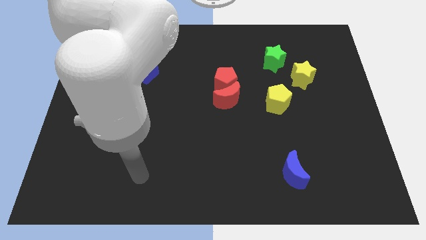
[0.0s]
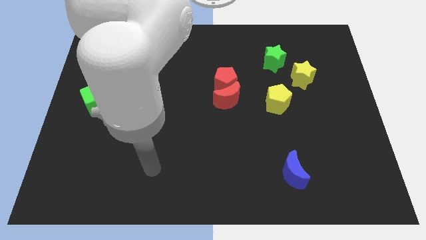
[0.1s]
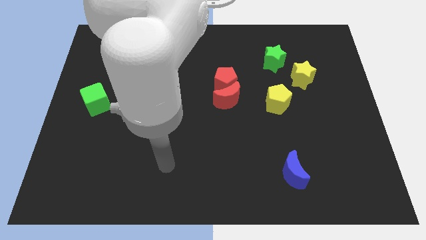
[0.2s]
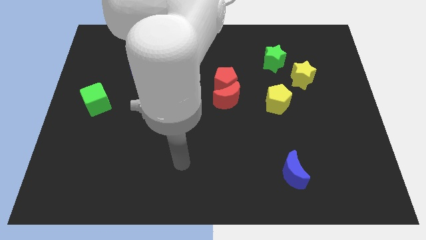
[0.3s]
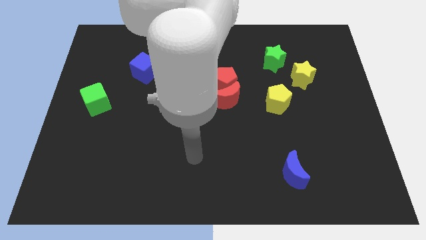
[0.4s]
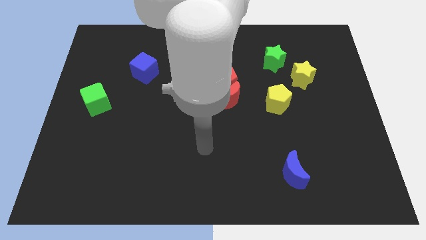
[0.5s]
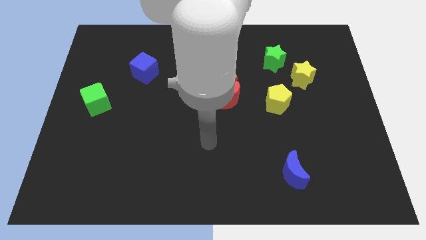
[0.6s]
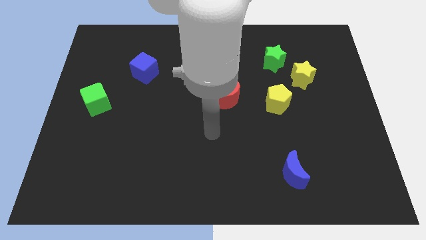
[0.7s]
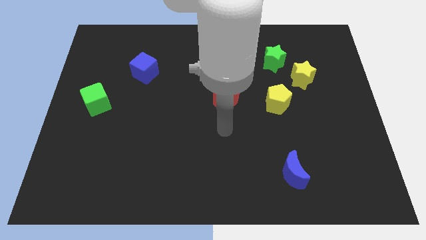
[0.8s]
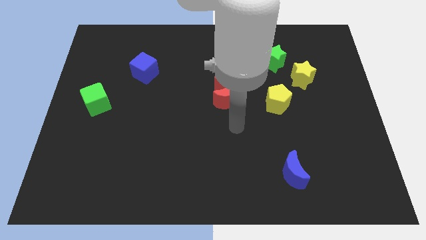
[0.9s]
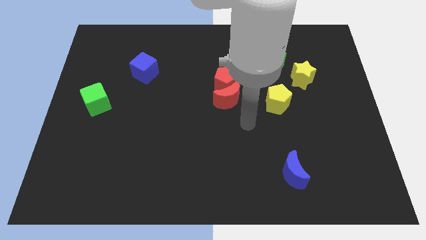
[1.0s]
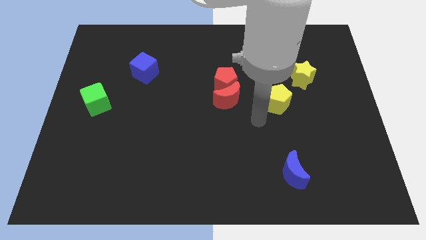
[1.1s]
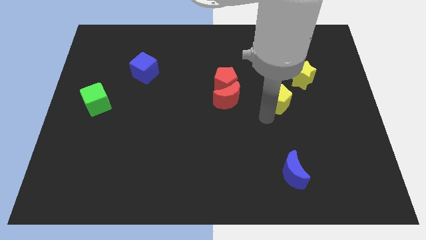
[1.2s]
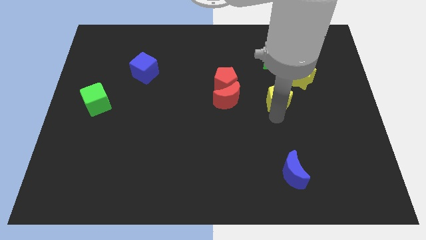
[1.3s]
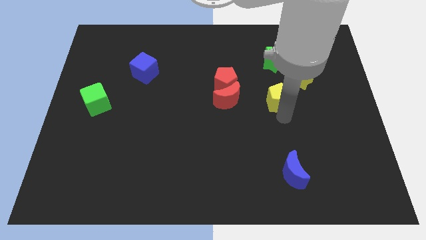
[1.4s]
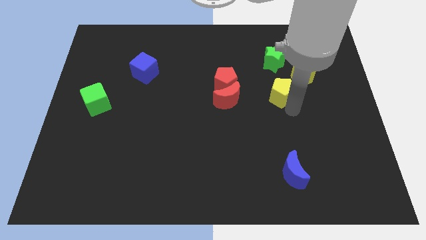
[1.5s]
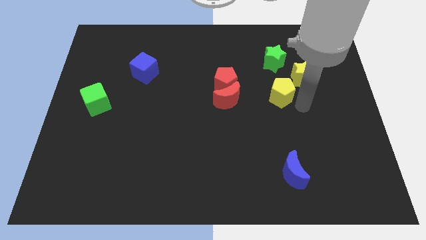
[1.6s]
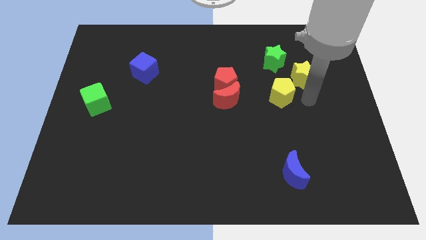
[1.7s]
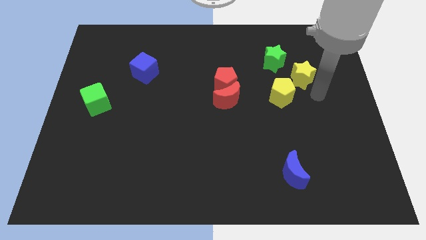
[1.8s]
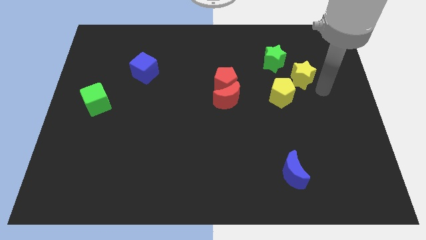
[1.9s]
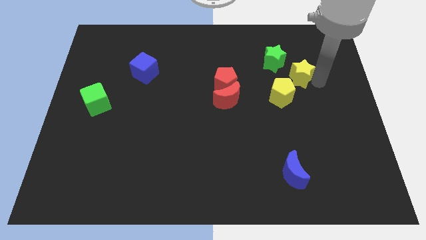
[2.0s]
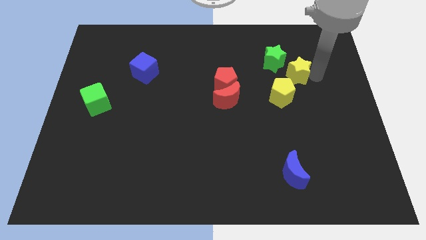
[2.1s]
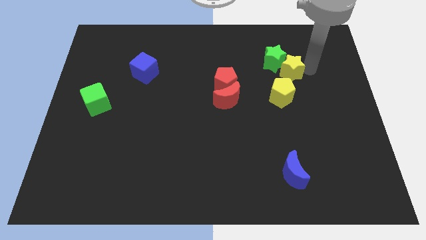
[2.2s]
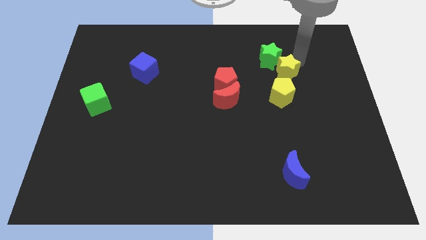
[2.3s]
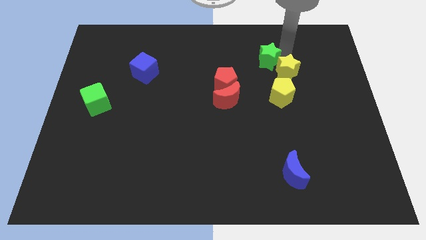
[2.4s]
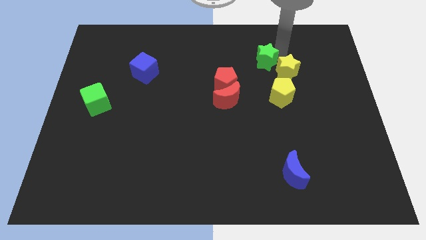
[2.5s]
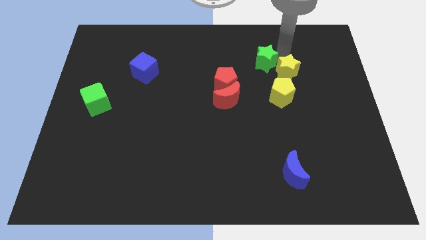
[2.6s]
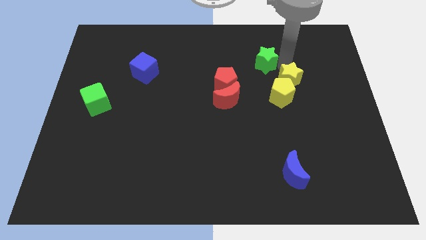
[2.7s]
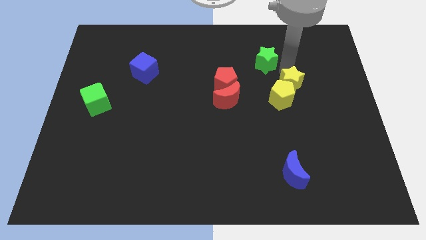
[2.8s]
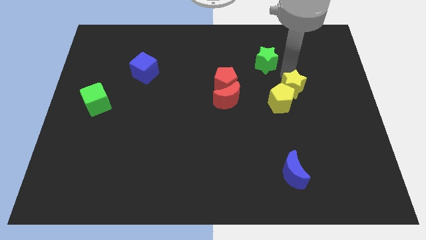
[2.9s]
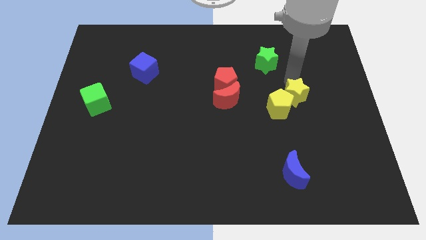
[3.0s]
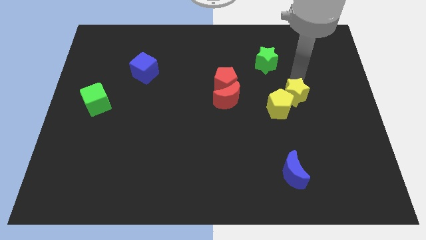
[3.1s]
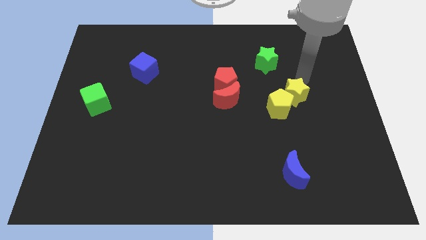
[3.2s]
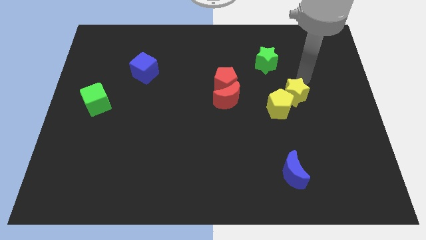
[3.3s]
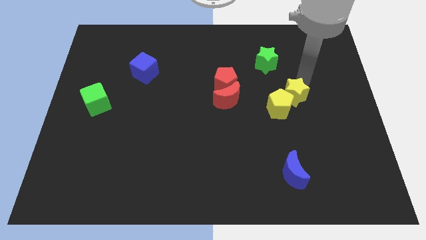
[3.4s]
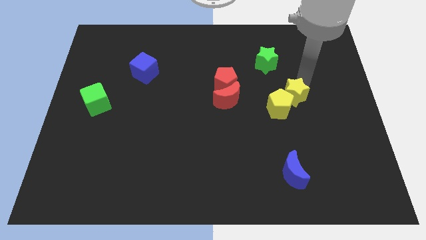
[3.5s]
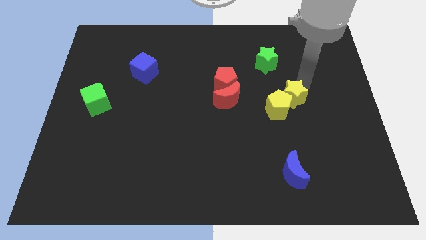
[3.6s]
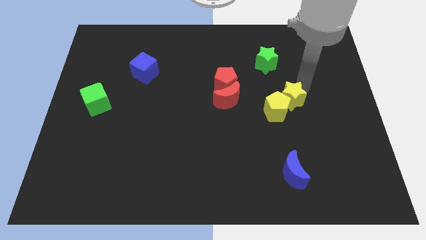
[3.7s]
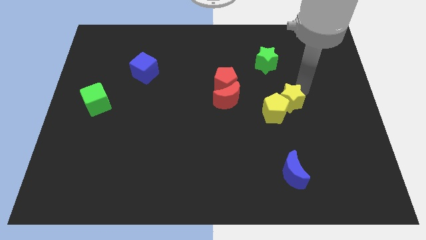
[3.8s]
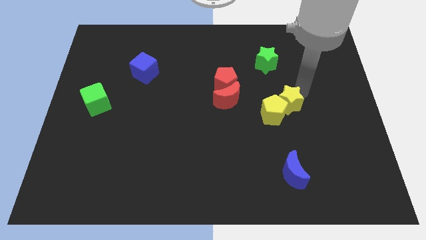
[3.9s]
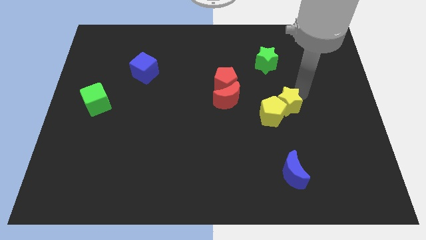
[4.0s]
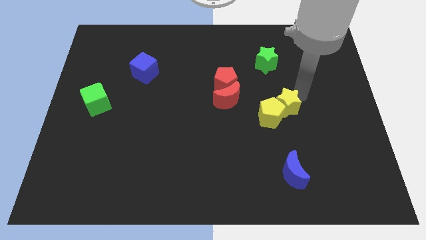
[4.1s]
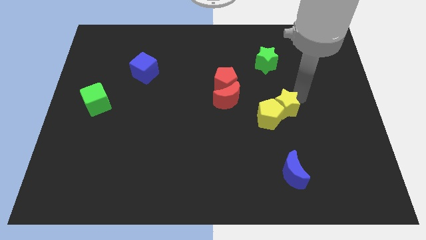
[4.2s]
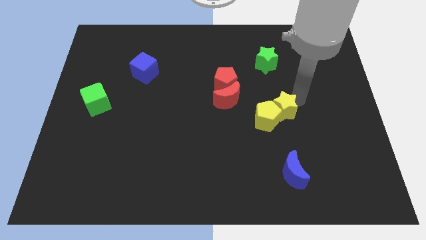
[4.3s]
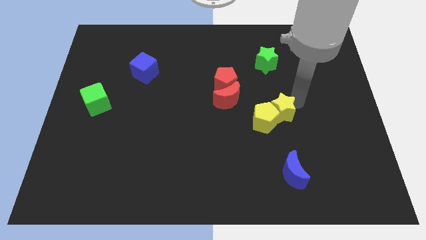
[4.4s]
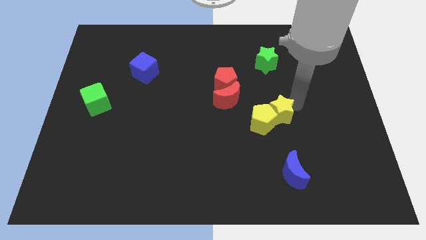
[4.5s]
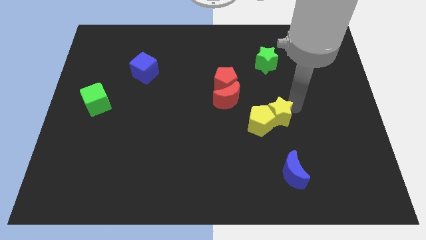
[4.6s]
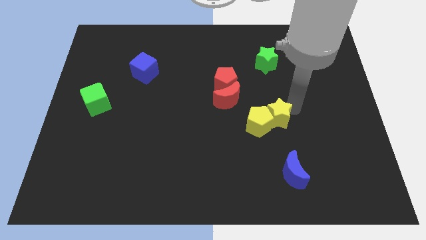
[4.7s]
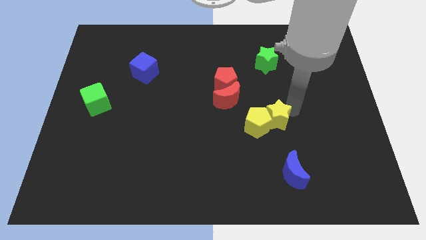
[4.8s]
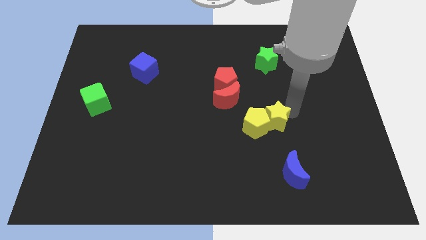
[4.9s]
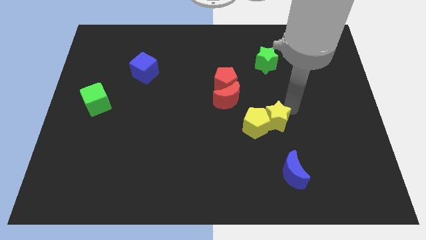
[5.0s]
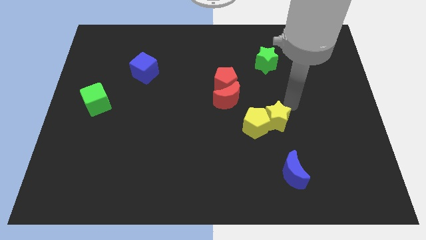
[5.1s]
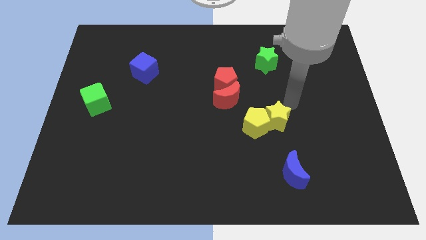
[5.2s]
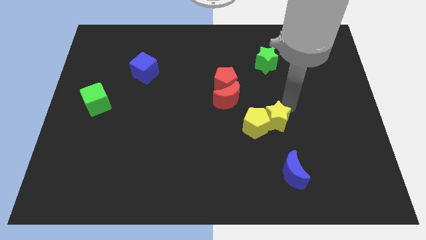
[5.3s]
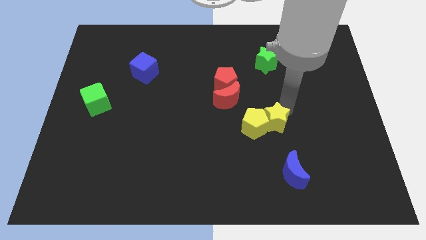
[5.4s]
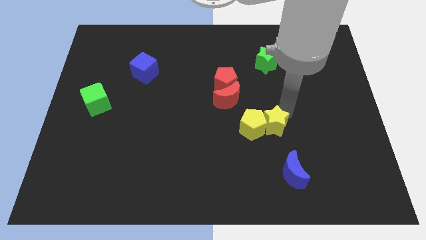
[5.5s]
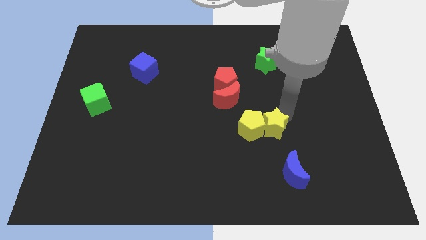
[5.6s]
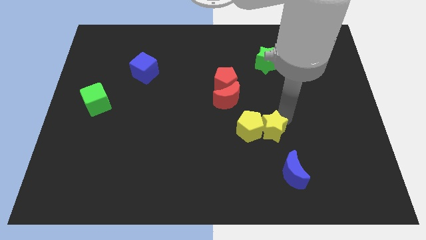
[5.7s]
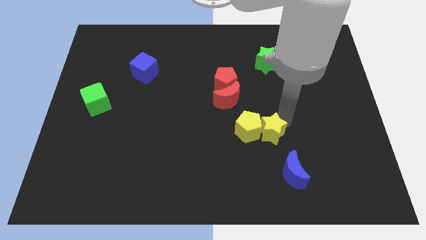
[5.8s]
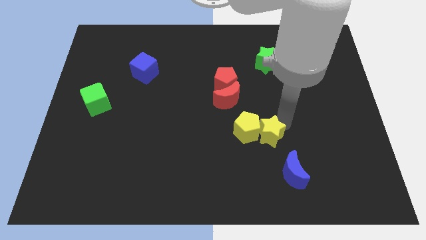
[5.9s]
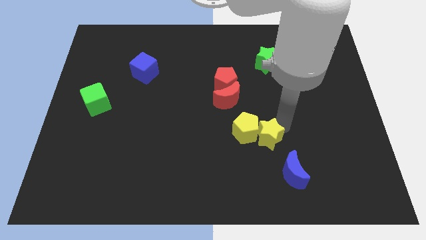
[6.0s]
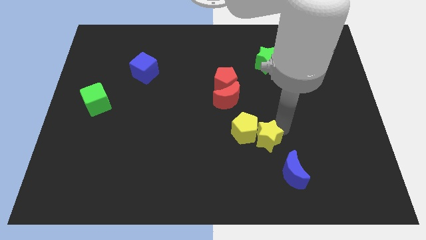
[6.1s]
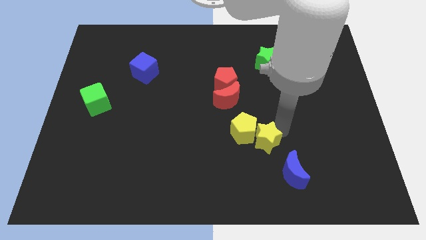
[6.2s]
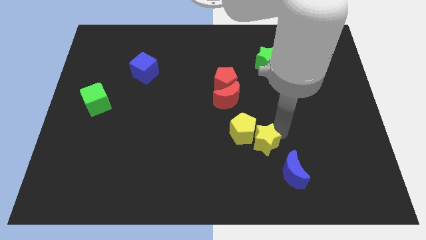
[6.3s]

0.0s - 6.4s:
slide the yellow star down and then left

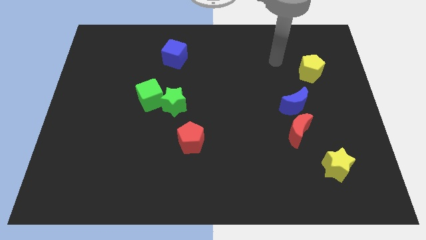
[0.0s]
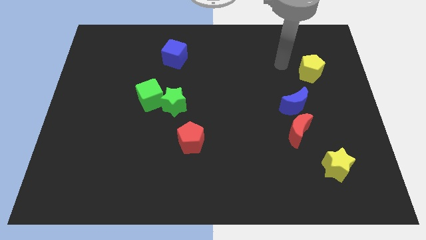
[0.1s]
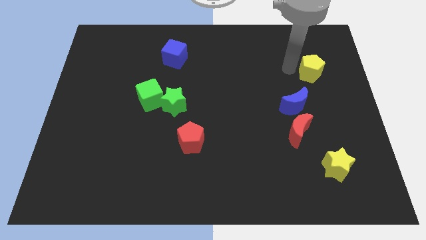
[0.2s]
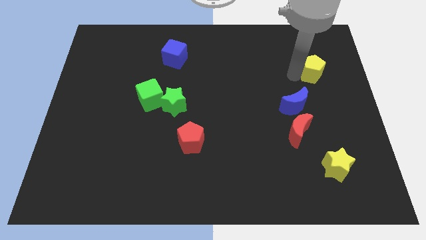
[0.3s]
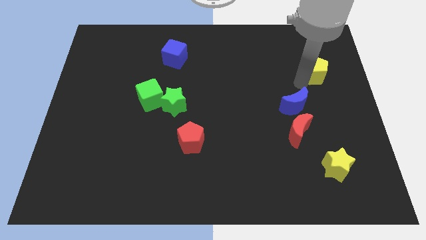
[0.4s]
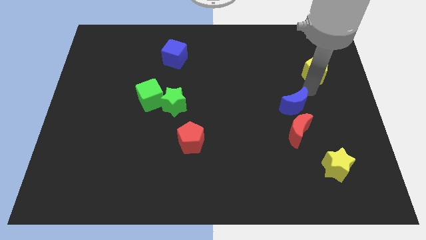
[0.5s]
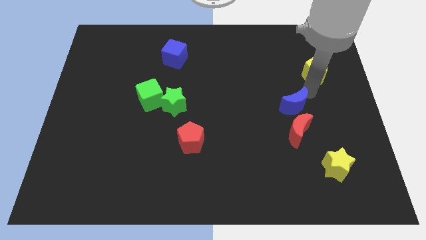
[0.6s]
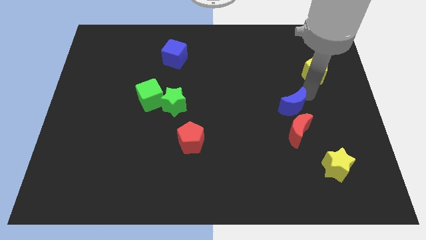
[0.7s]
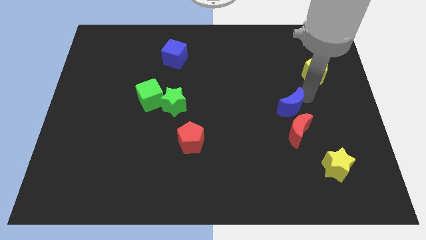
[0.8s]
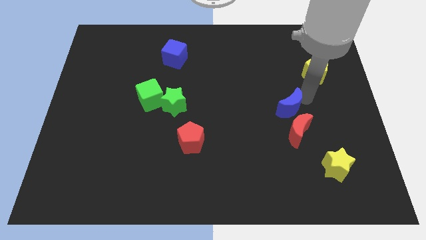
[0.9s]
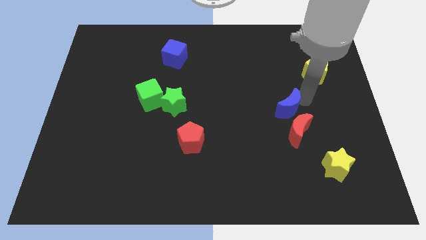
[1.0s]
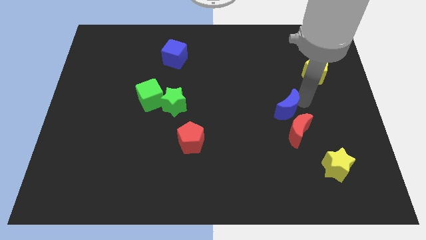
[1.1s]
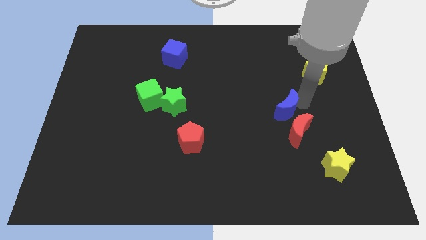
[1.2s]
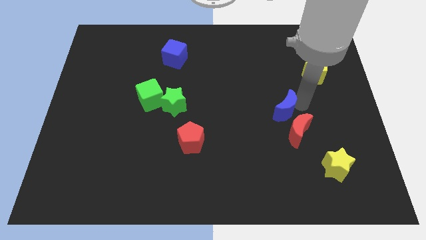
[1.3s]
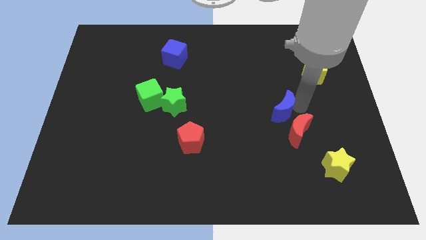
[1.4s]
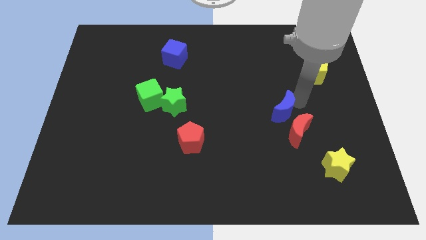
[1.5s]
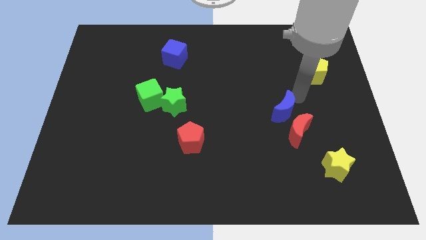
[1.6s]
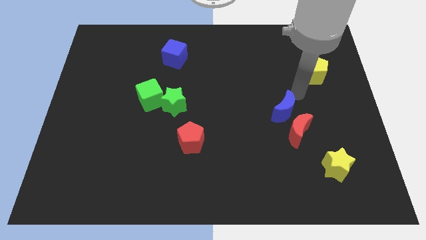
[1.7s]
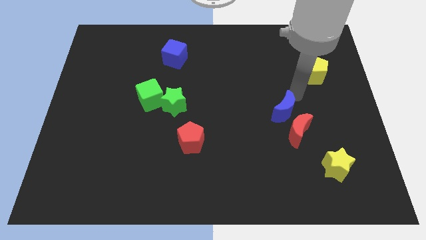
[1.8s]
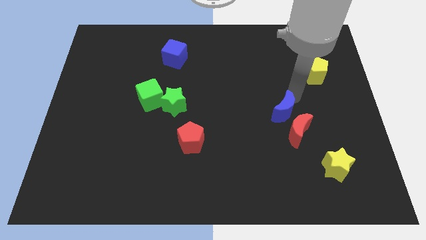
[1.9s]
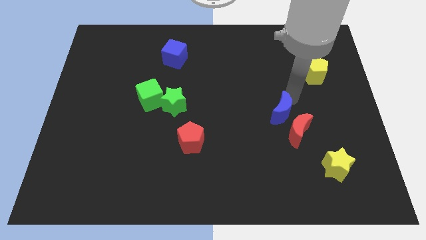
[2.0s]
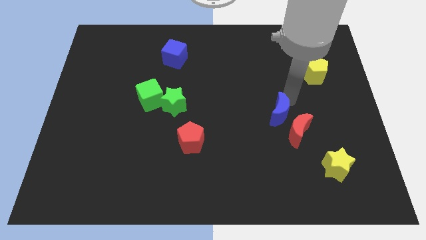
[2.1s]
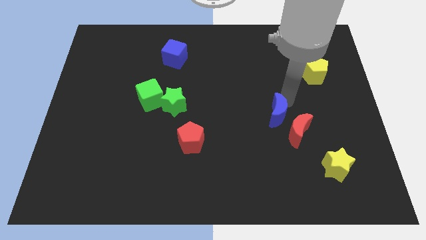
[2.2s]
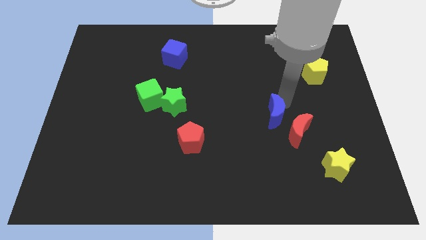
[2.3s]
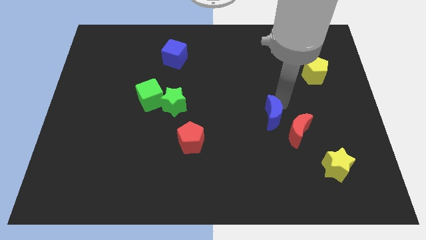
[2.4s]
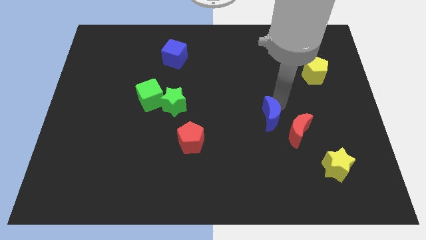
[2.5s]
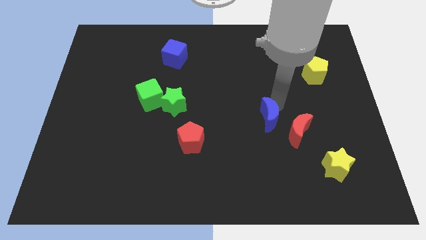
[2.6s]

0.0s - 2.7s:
push the blue moon down and then to the left somewhat
